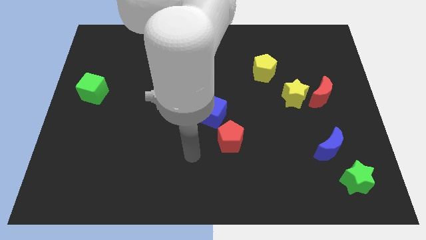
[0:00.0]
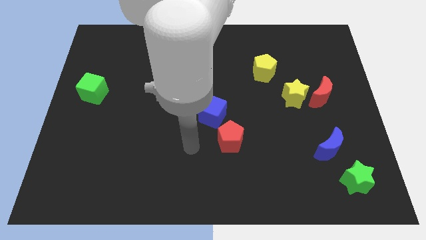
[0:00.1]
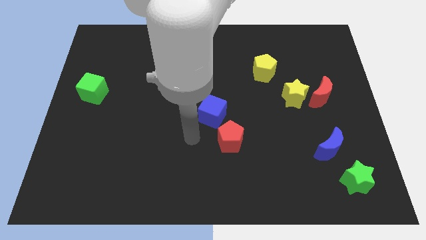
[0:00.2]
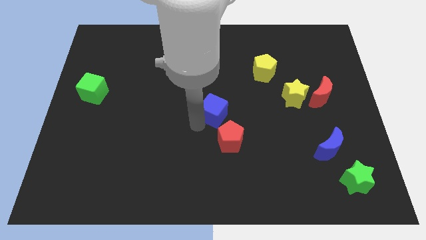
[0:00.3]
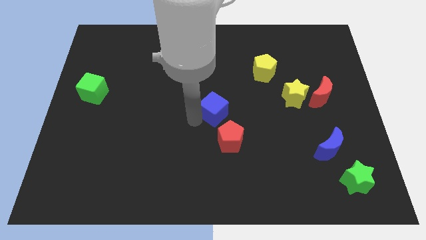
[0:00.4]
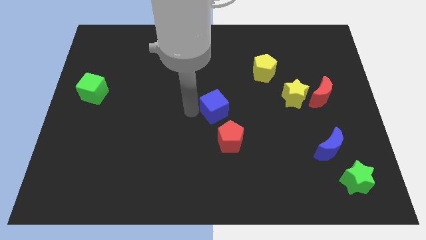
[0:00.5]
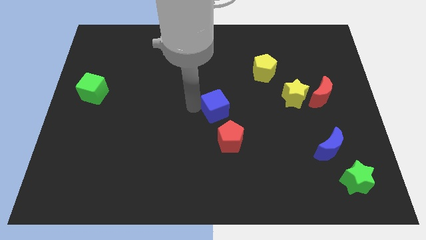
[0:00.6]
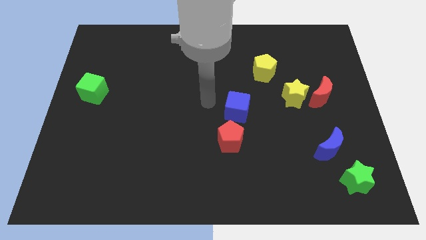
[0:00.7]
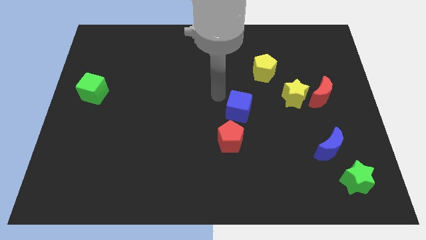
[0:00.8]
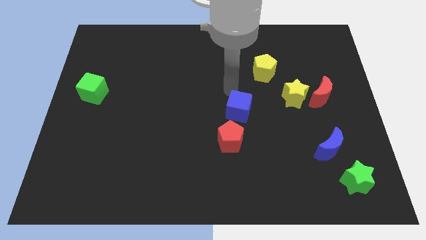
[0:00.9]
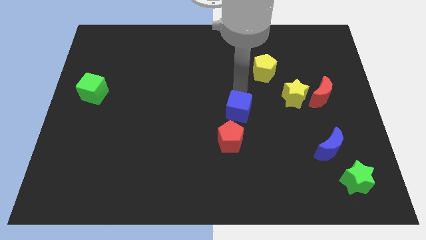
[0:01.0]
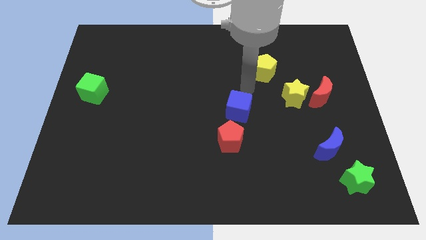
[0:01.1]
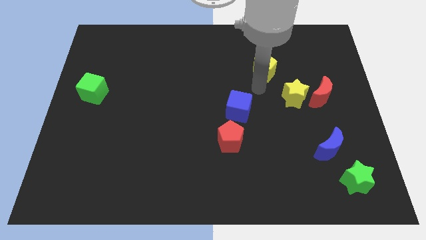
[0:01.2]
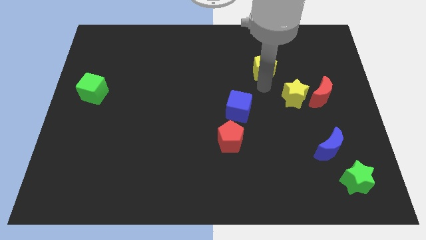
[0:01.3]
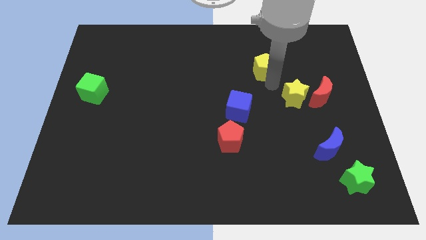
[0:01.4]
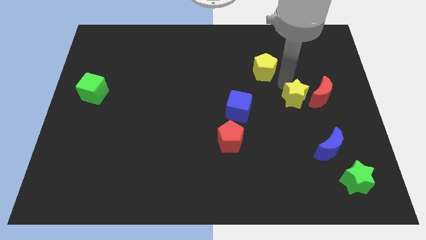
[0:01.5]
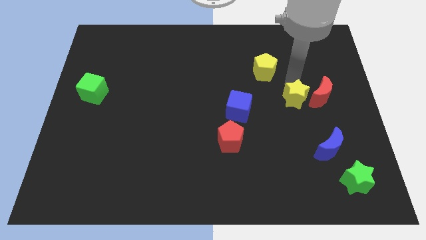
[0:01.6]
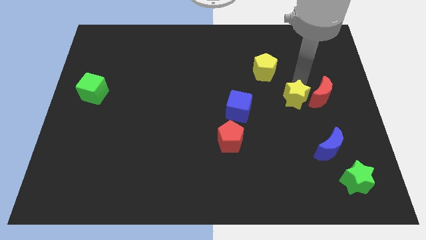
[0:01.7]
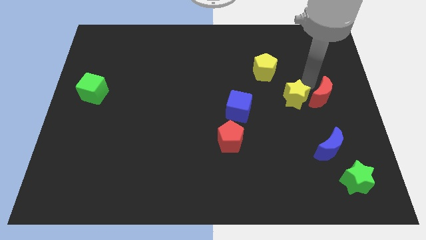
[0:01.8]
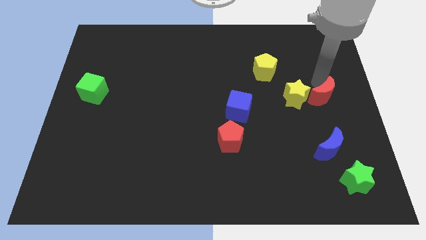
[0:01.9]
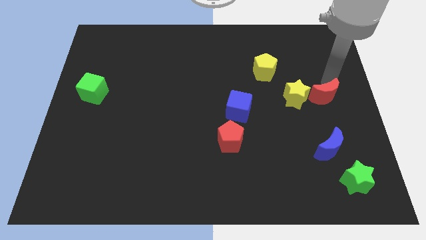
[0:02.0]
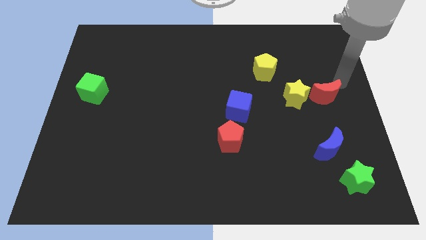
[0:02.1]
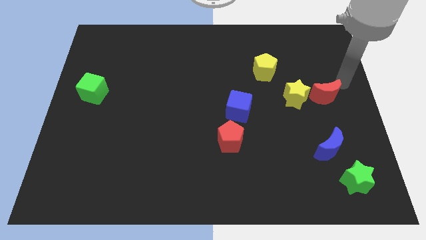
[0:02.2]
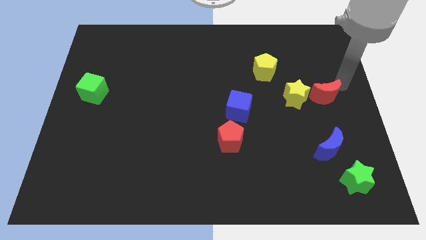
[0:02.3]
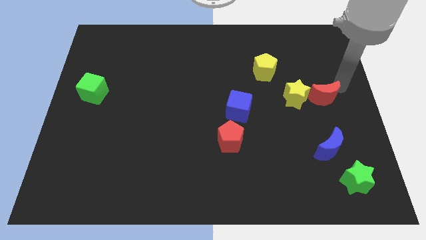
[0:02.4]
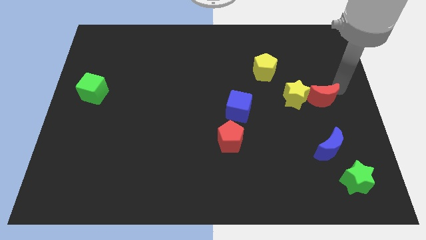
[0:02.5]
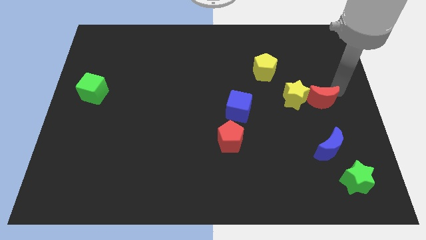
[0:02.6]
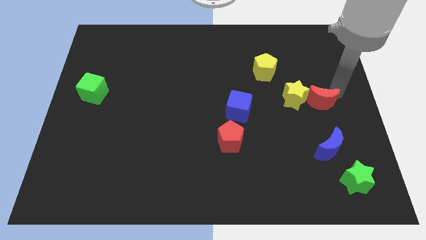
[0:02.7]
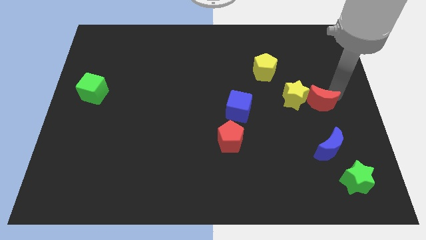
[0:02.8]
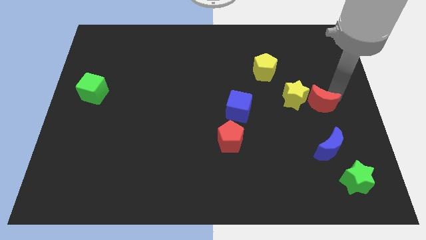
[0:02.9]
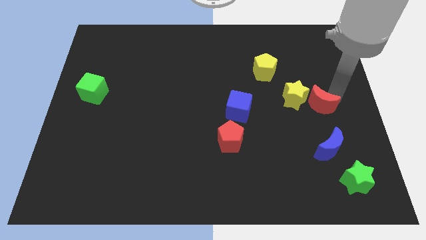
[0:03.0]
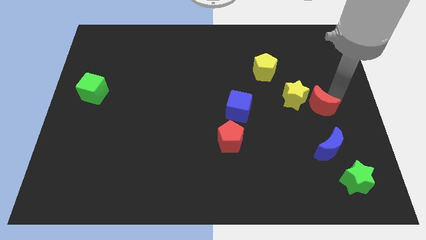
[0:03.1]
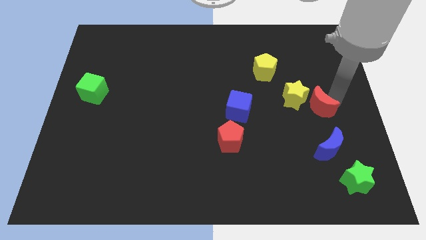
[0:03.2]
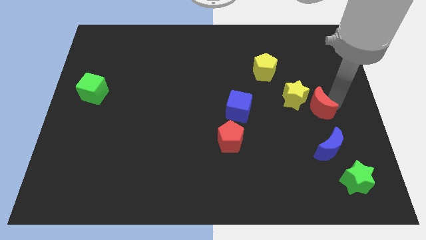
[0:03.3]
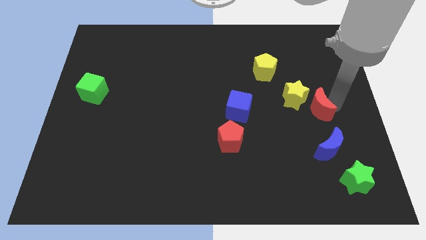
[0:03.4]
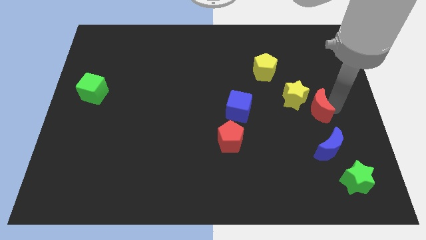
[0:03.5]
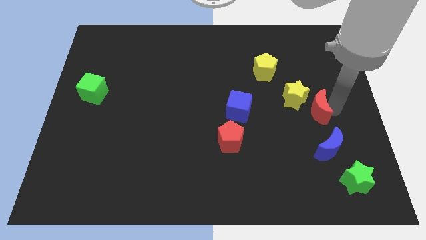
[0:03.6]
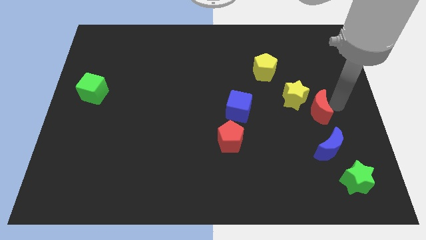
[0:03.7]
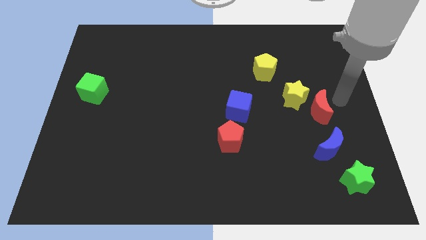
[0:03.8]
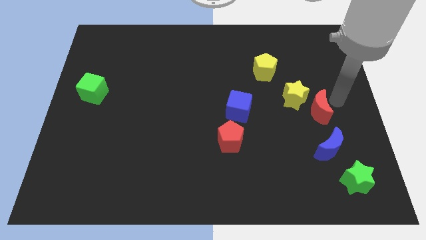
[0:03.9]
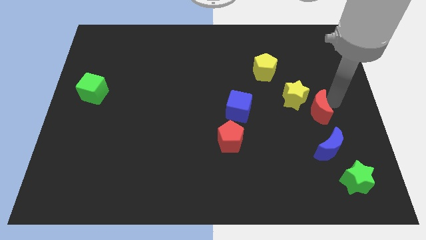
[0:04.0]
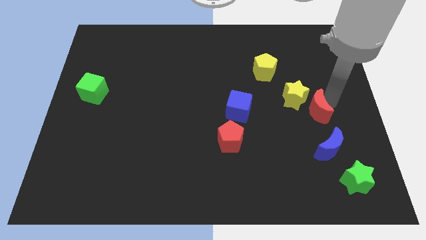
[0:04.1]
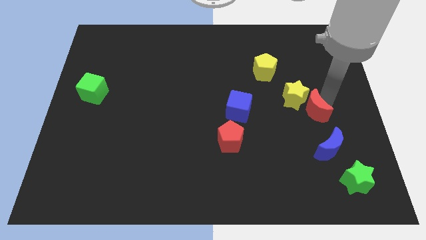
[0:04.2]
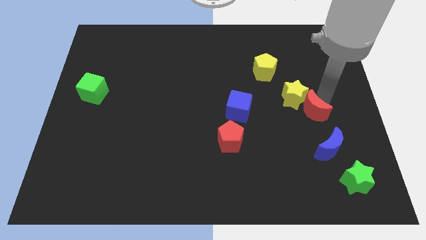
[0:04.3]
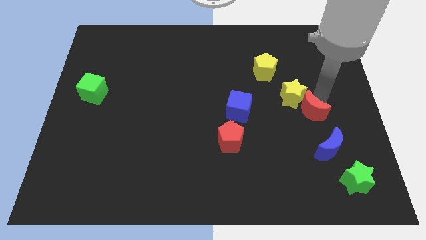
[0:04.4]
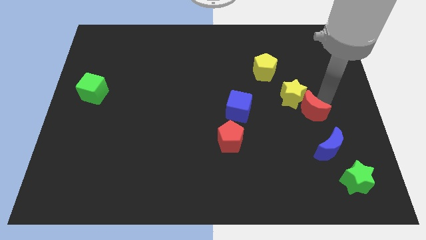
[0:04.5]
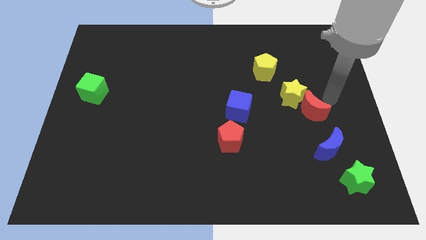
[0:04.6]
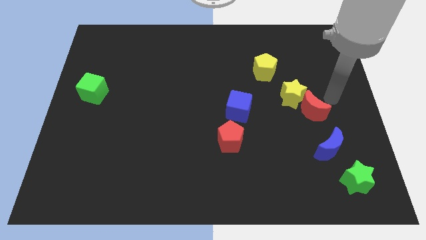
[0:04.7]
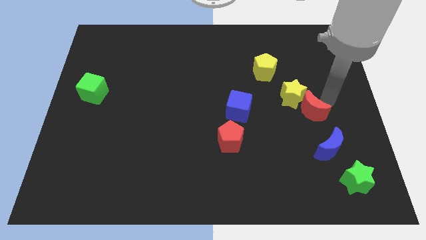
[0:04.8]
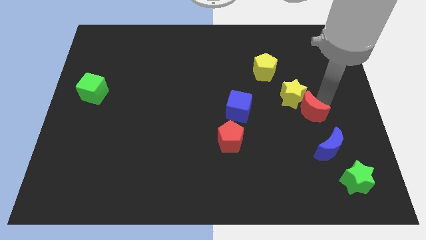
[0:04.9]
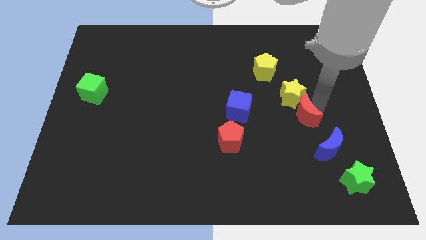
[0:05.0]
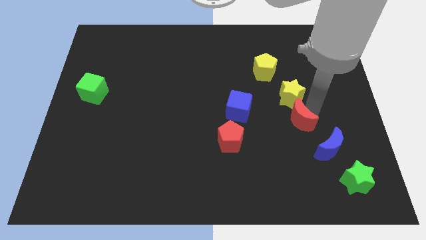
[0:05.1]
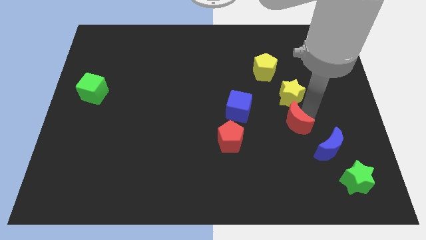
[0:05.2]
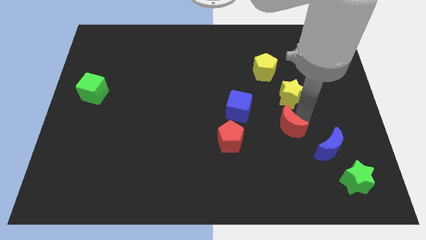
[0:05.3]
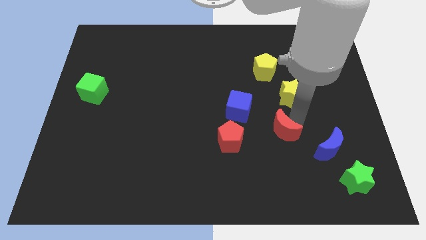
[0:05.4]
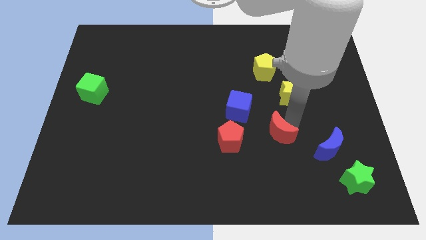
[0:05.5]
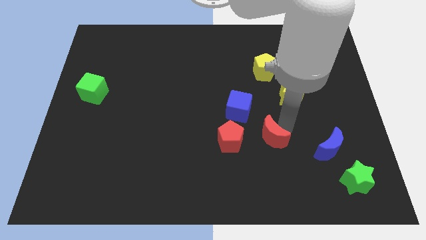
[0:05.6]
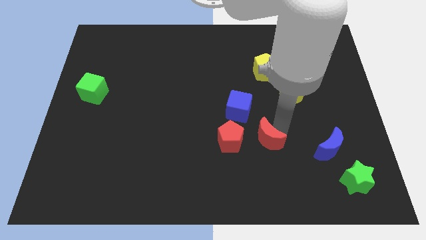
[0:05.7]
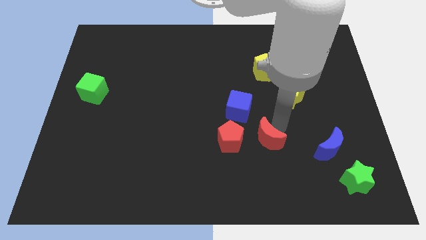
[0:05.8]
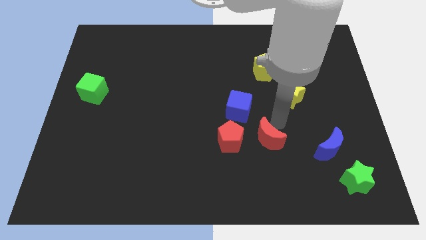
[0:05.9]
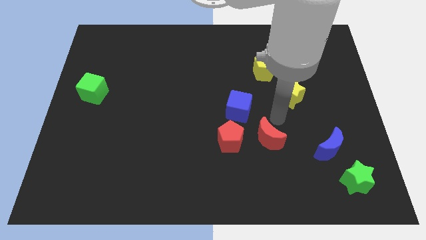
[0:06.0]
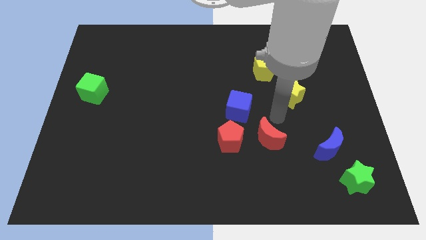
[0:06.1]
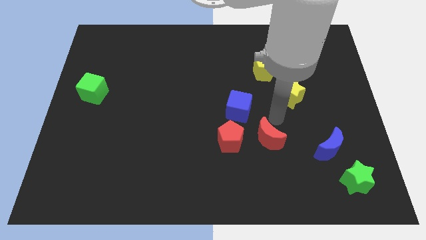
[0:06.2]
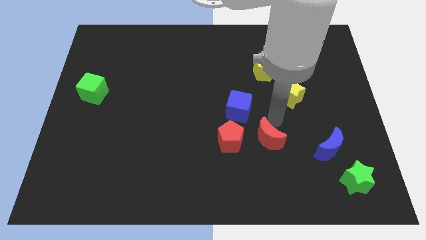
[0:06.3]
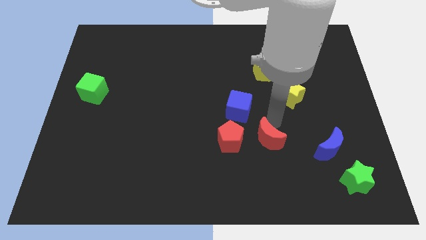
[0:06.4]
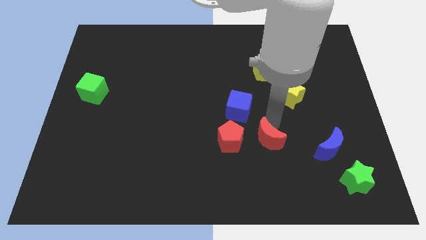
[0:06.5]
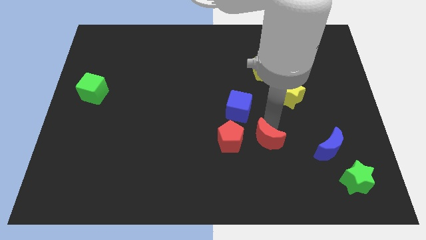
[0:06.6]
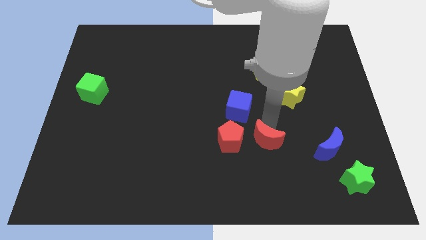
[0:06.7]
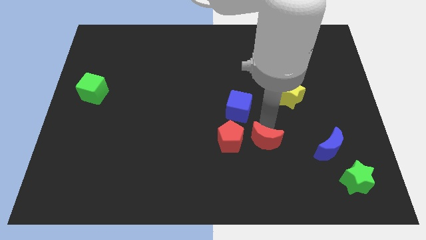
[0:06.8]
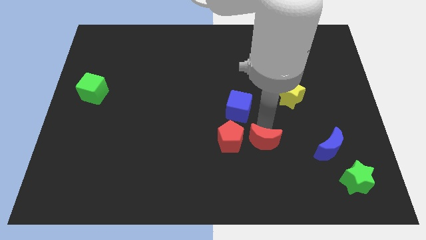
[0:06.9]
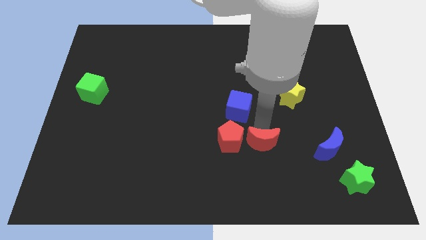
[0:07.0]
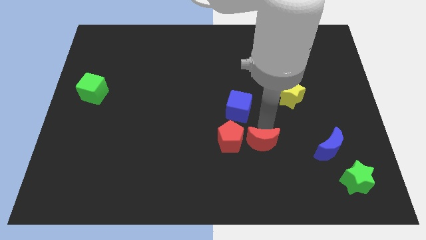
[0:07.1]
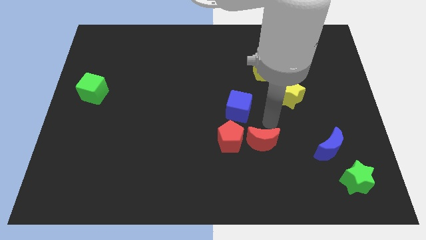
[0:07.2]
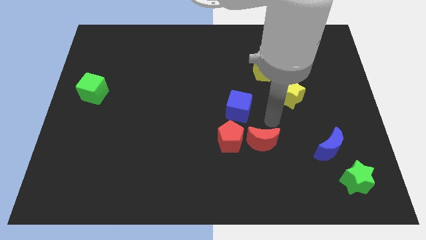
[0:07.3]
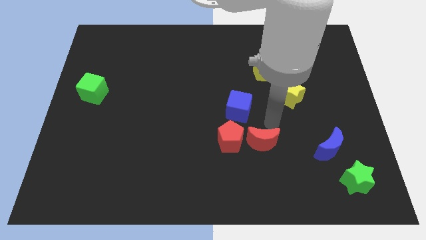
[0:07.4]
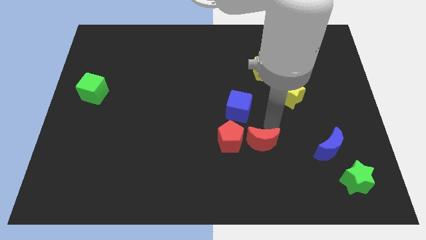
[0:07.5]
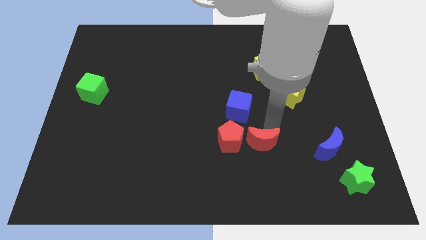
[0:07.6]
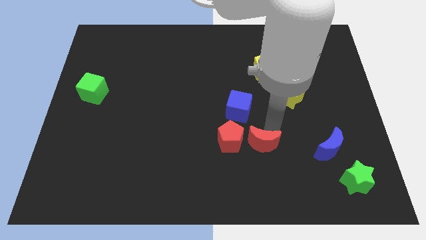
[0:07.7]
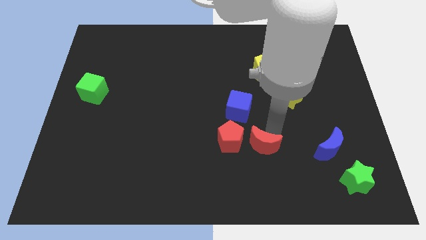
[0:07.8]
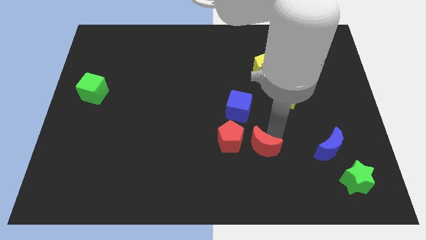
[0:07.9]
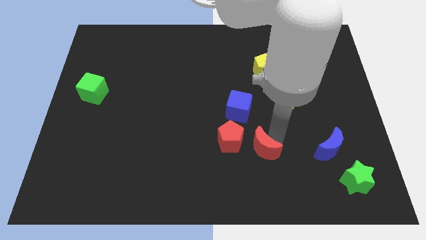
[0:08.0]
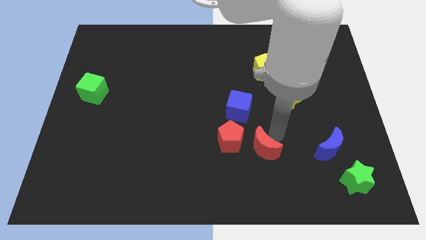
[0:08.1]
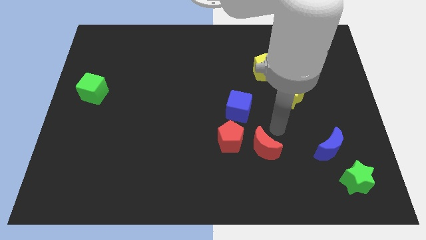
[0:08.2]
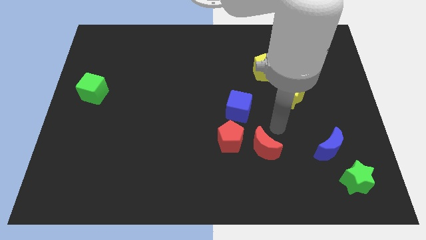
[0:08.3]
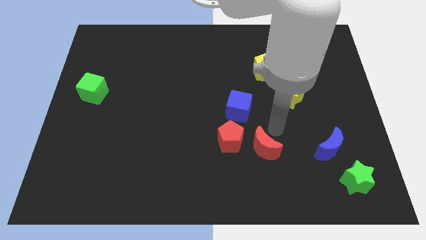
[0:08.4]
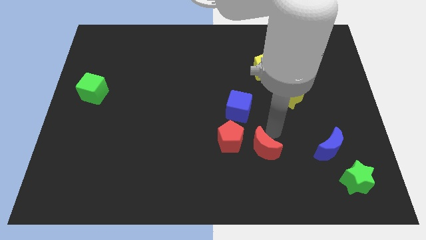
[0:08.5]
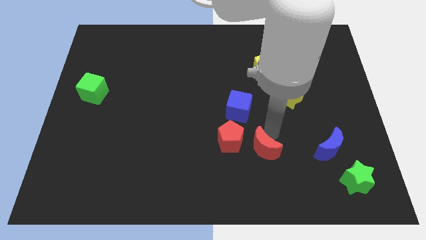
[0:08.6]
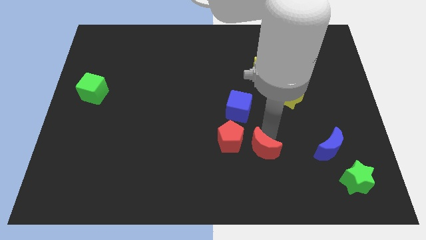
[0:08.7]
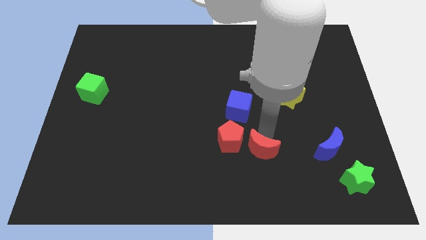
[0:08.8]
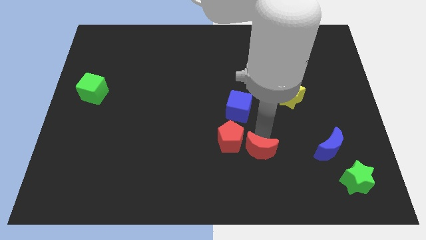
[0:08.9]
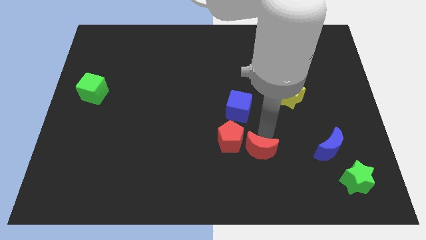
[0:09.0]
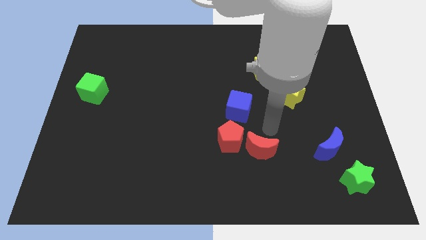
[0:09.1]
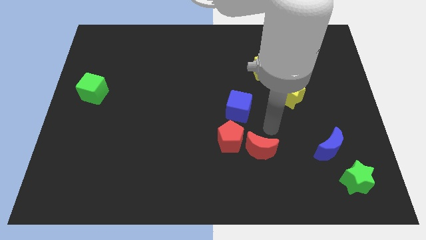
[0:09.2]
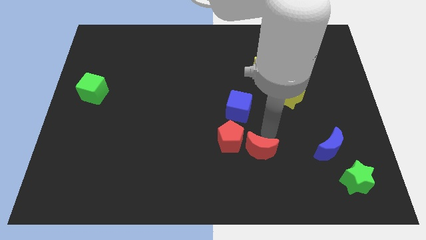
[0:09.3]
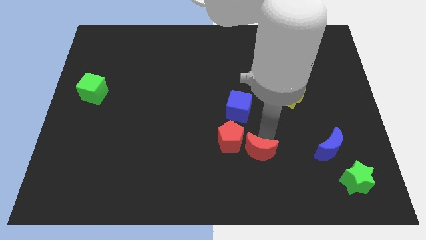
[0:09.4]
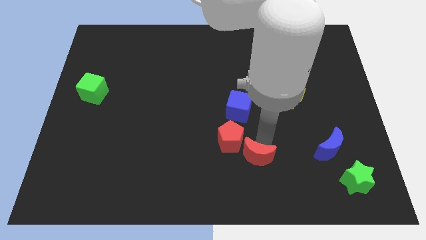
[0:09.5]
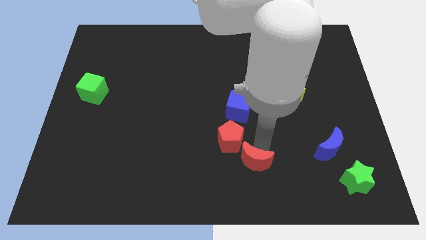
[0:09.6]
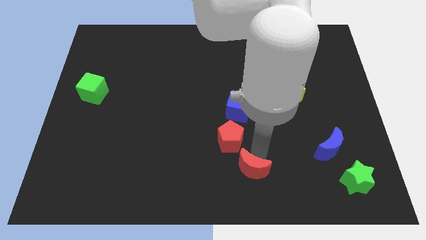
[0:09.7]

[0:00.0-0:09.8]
slide the red moon to the bottom
